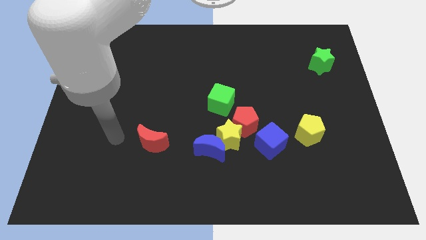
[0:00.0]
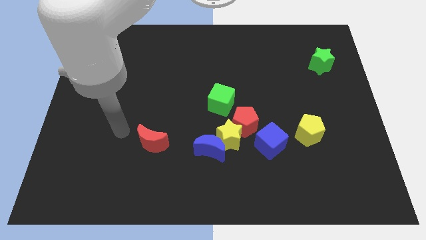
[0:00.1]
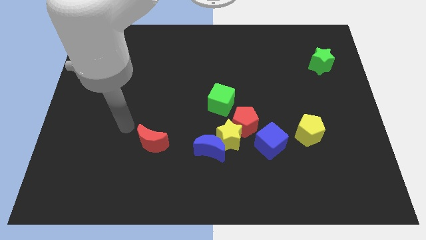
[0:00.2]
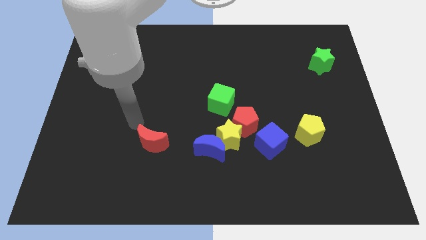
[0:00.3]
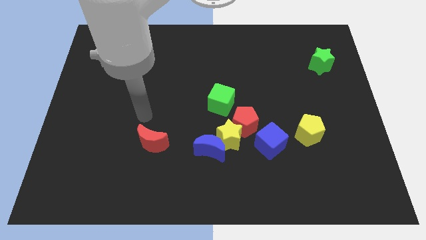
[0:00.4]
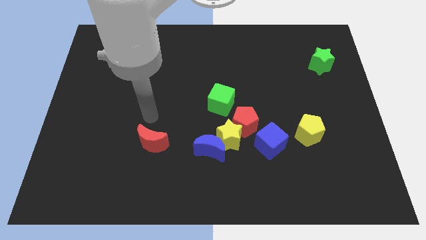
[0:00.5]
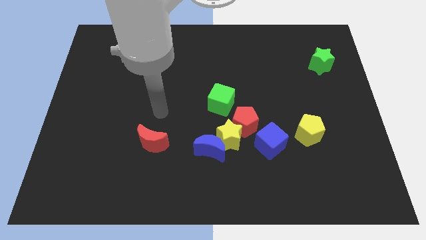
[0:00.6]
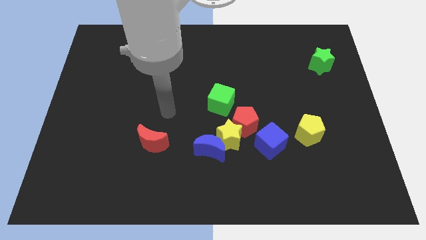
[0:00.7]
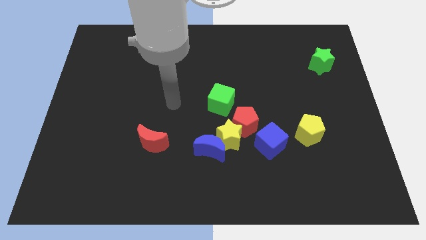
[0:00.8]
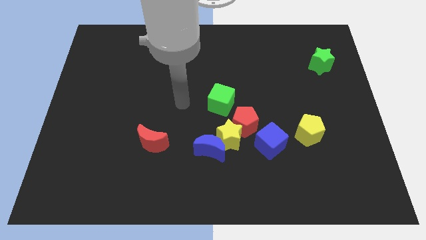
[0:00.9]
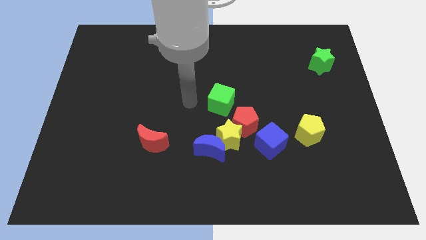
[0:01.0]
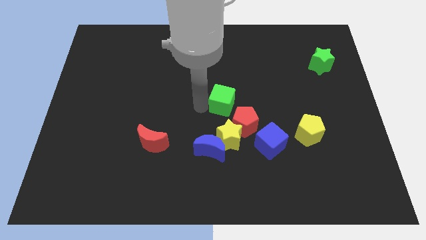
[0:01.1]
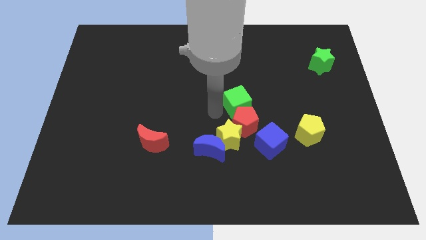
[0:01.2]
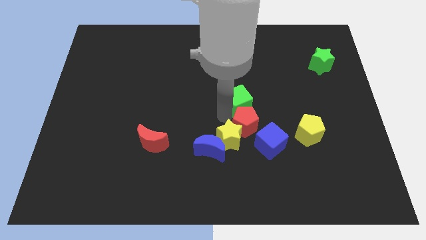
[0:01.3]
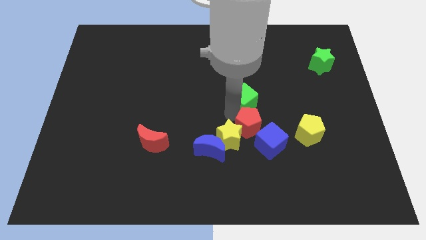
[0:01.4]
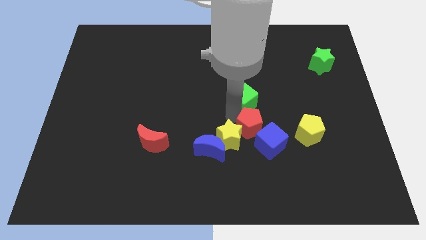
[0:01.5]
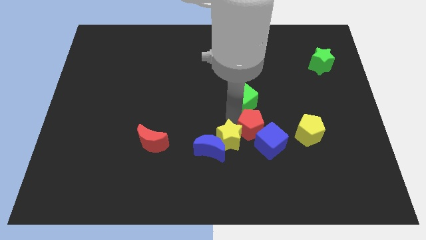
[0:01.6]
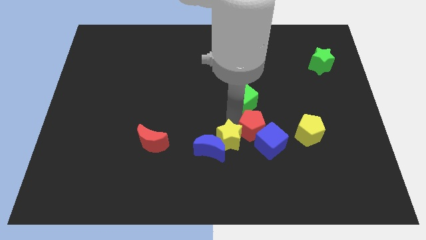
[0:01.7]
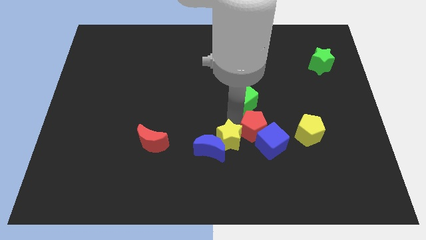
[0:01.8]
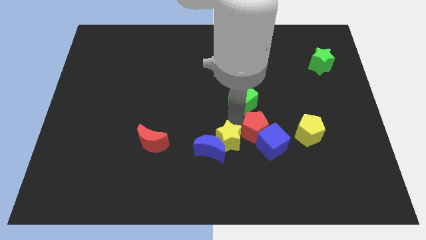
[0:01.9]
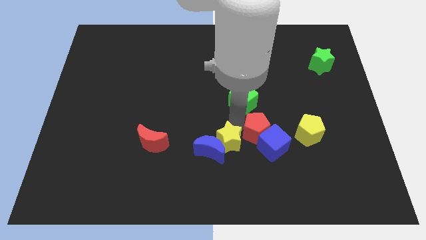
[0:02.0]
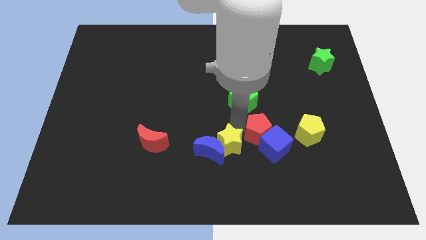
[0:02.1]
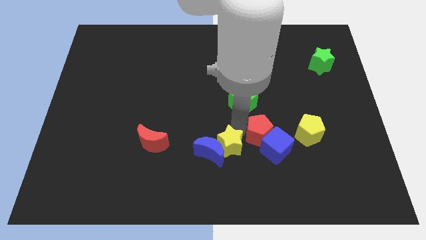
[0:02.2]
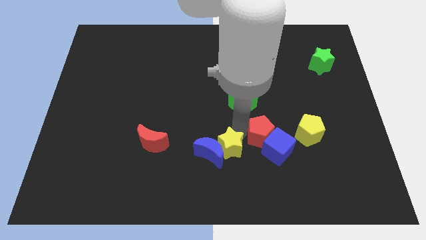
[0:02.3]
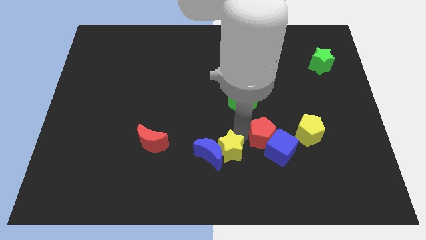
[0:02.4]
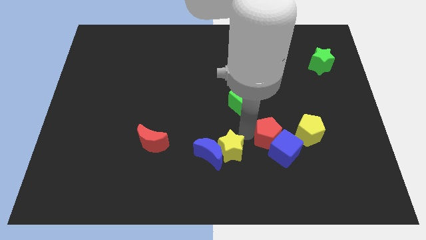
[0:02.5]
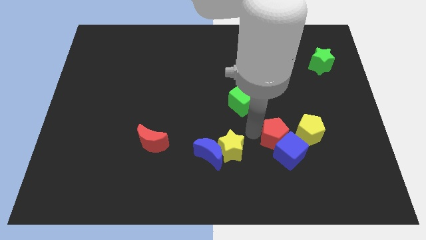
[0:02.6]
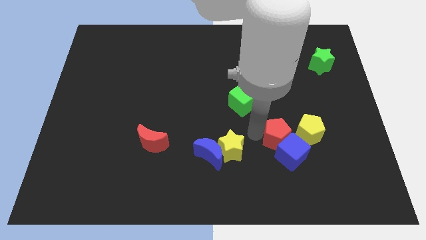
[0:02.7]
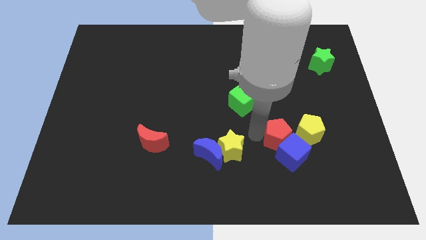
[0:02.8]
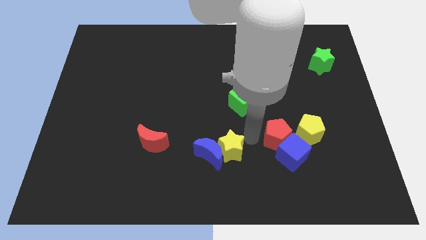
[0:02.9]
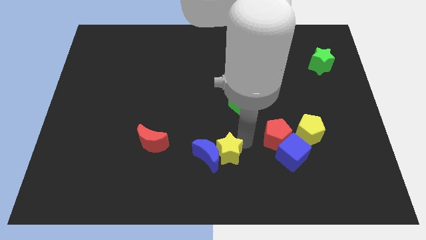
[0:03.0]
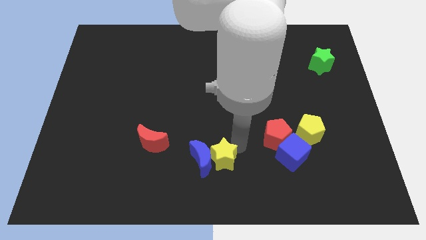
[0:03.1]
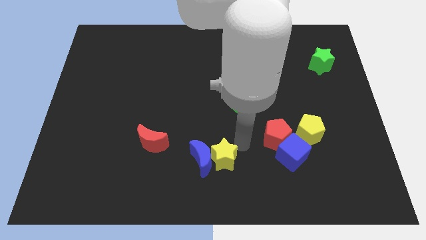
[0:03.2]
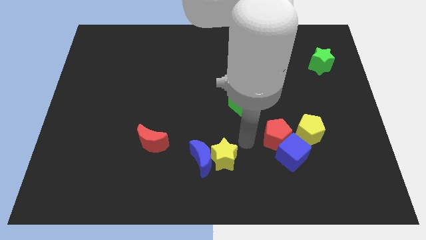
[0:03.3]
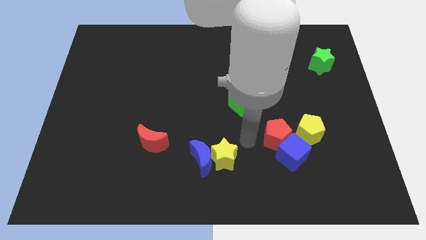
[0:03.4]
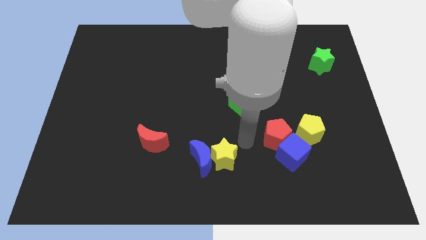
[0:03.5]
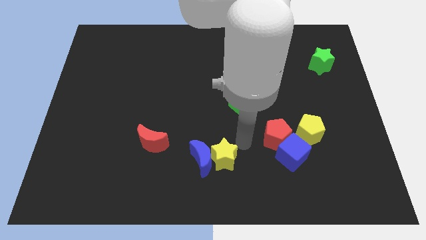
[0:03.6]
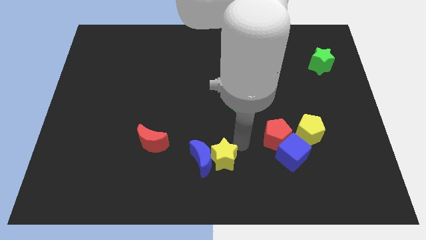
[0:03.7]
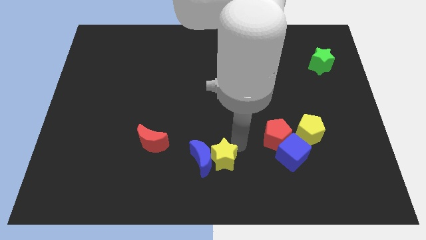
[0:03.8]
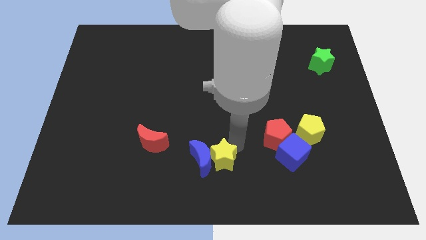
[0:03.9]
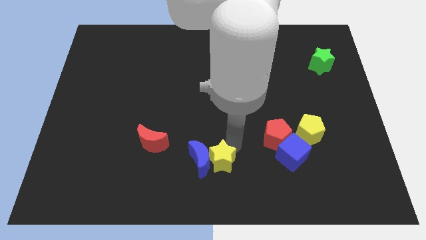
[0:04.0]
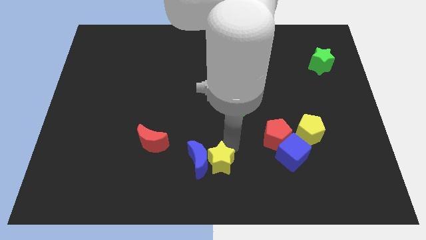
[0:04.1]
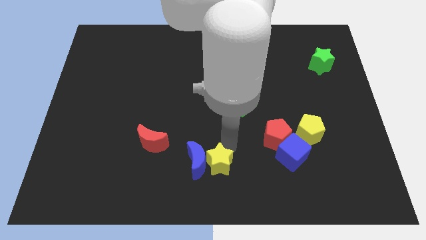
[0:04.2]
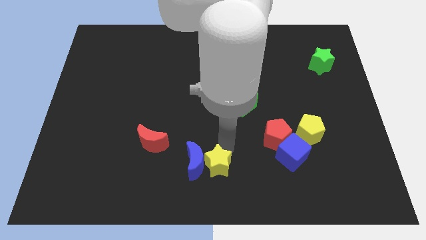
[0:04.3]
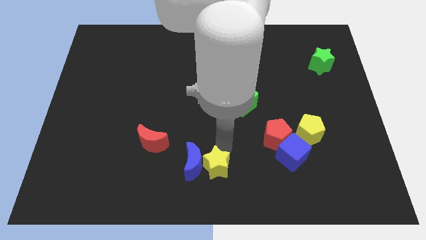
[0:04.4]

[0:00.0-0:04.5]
separate the yellow star from the clump

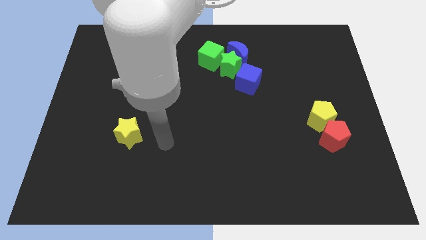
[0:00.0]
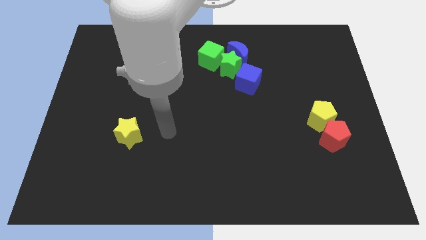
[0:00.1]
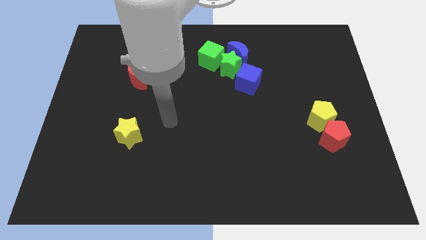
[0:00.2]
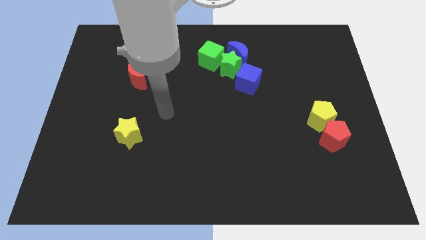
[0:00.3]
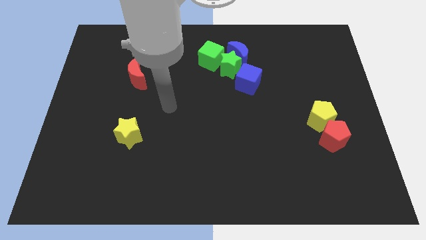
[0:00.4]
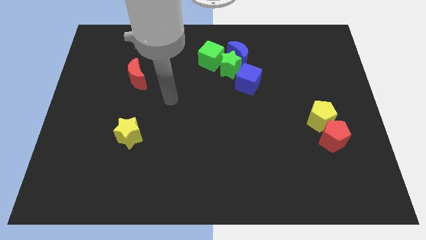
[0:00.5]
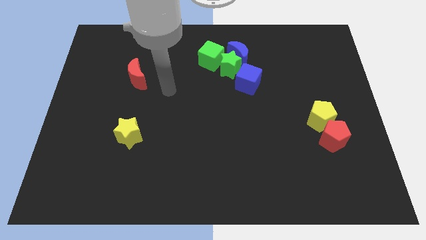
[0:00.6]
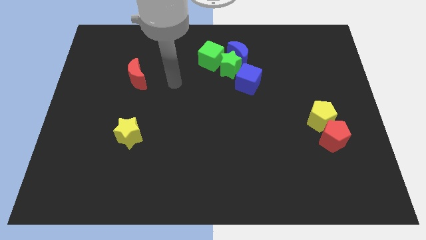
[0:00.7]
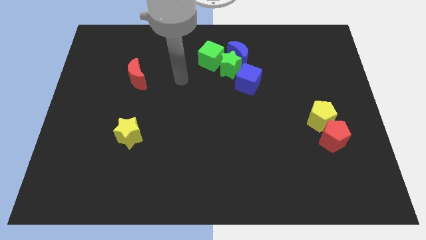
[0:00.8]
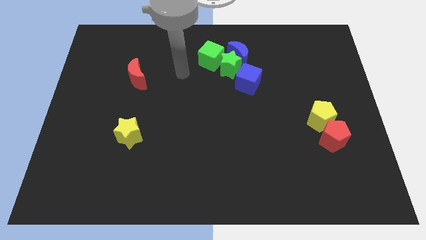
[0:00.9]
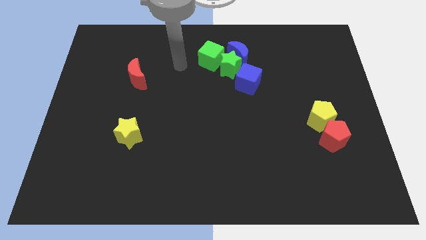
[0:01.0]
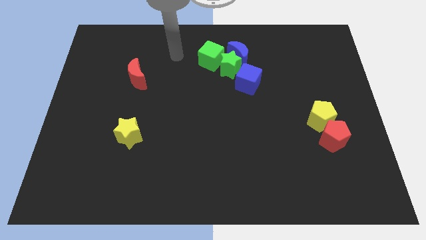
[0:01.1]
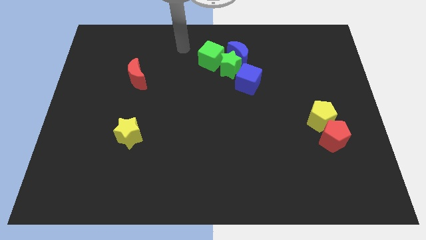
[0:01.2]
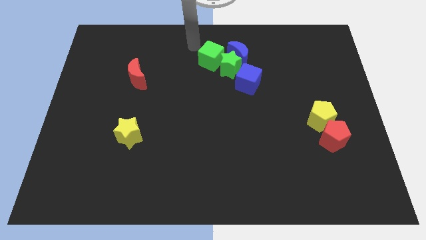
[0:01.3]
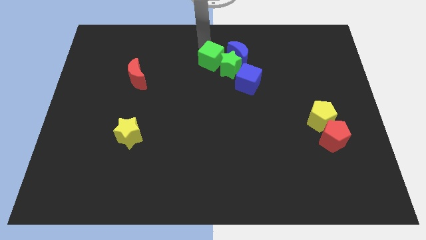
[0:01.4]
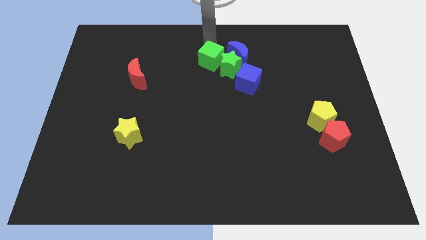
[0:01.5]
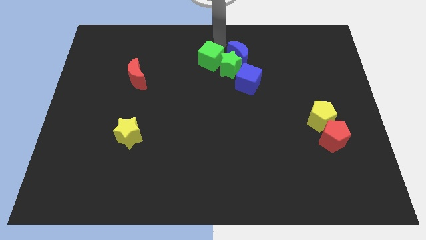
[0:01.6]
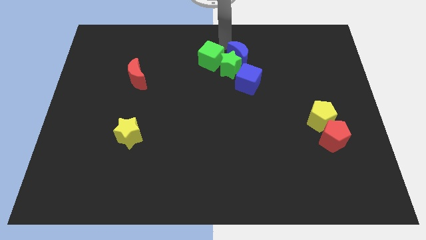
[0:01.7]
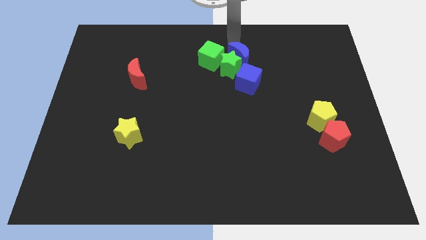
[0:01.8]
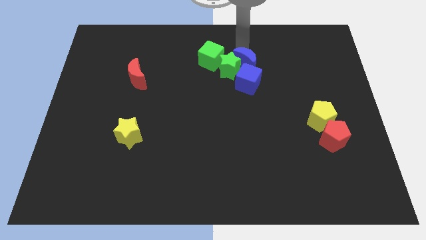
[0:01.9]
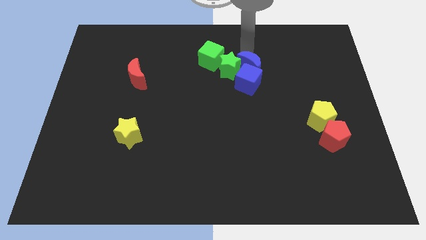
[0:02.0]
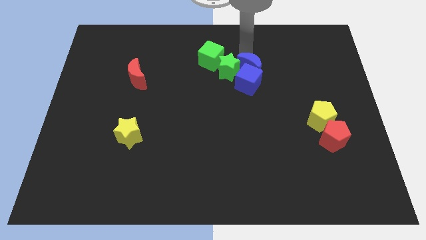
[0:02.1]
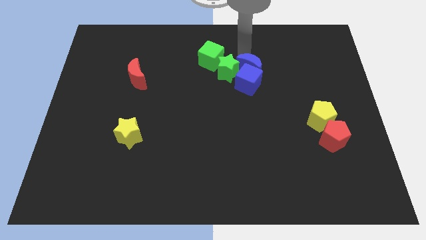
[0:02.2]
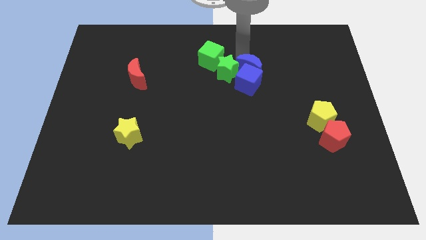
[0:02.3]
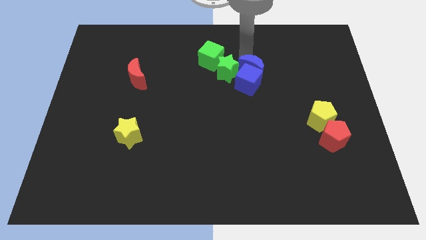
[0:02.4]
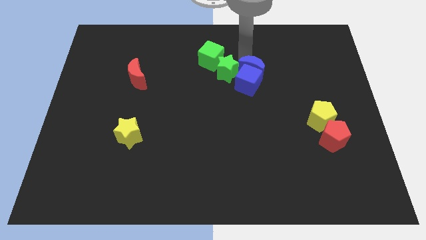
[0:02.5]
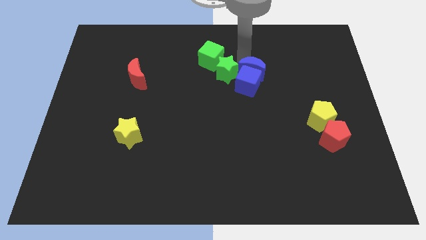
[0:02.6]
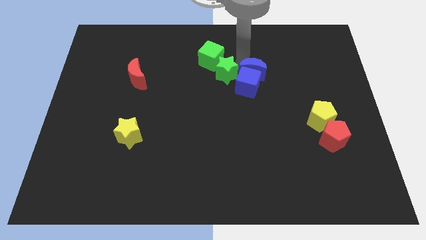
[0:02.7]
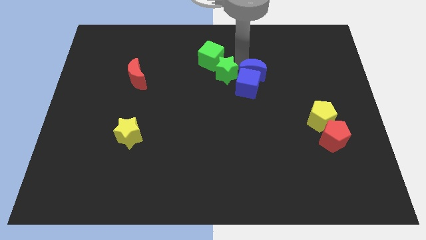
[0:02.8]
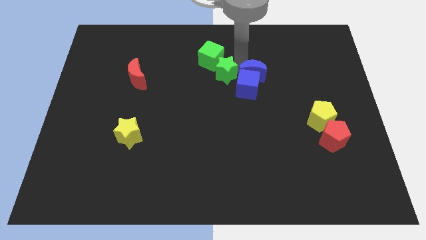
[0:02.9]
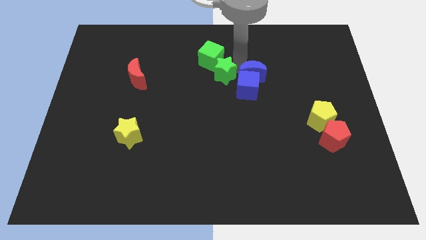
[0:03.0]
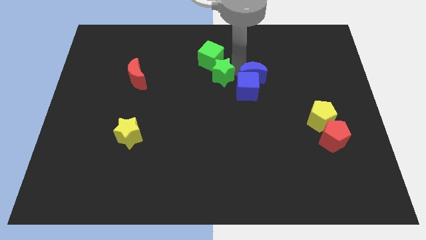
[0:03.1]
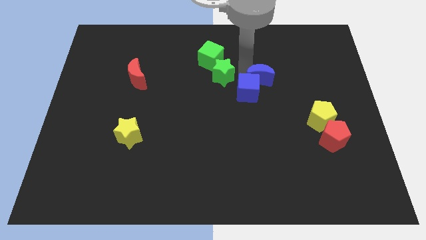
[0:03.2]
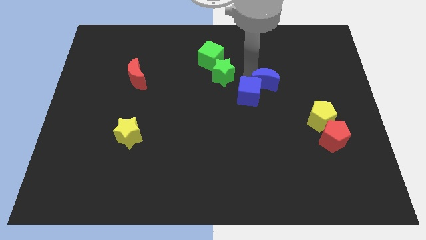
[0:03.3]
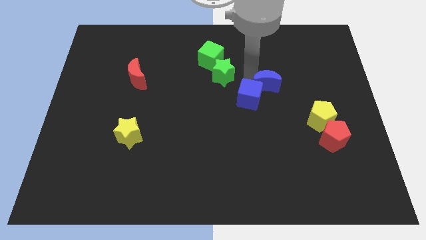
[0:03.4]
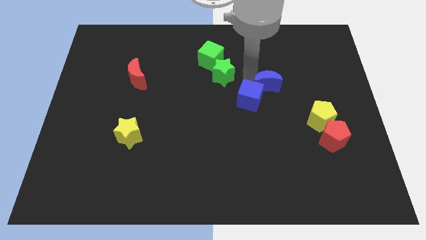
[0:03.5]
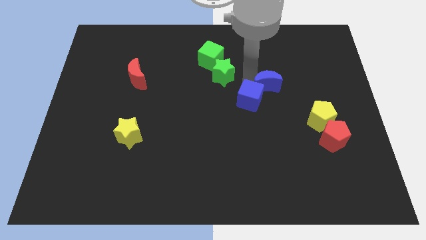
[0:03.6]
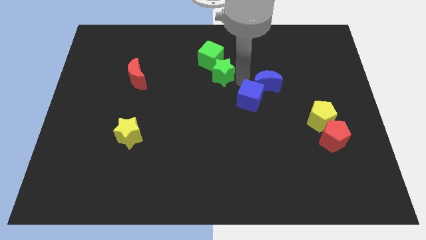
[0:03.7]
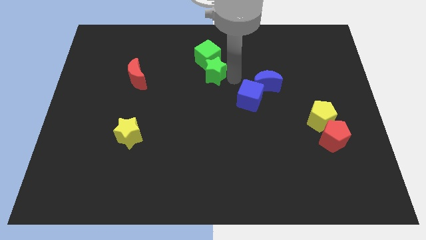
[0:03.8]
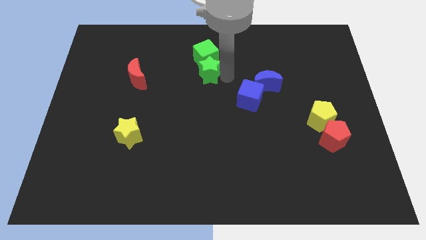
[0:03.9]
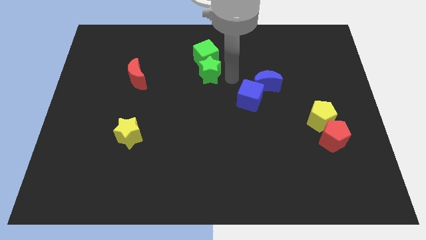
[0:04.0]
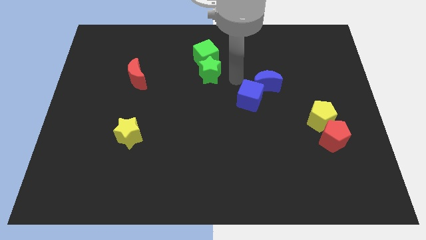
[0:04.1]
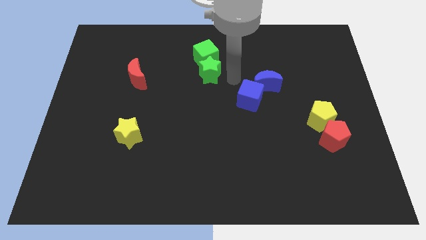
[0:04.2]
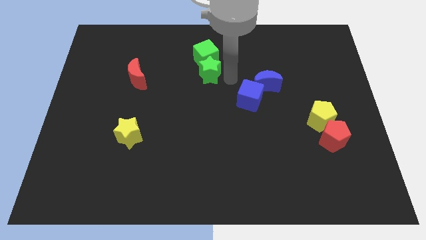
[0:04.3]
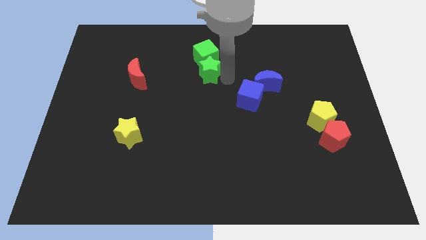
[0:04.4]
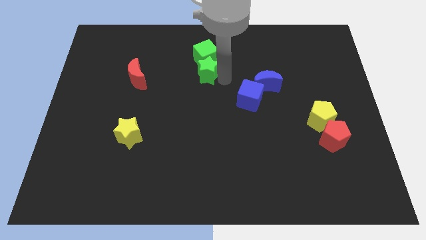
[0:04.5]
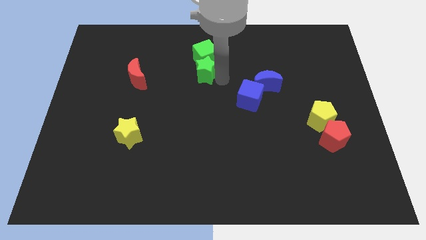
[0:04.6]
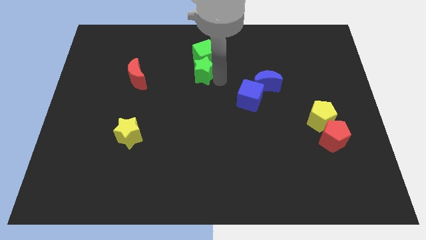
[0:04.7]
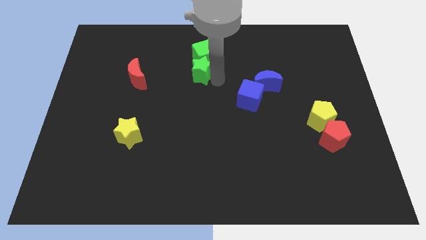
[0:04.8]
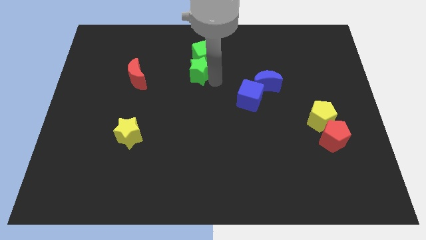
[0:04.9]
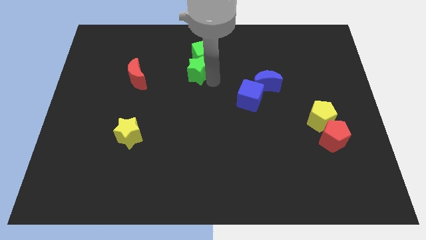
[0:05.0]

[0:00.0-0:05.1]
separate the green star from the group of blocks

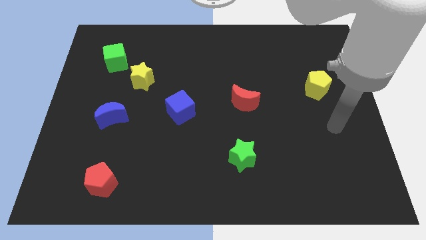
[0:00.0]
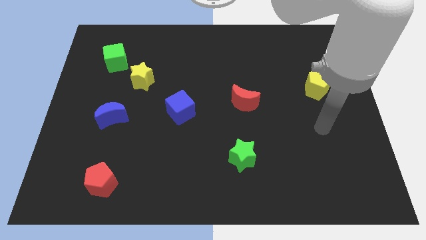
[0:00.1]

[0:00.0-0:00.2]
pull the green cube apart from the yellow star
